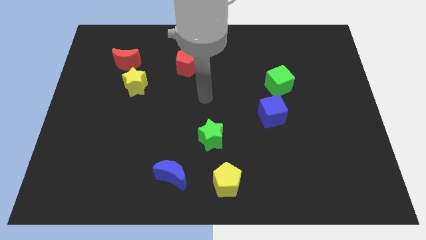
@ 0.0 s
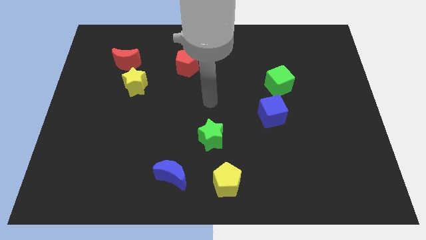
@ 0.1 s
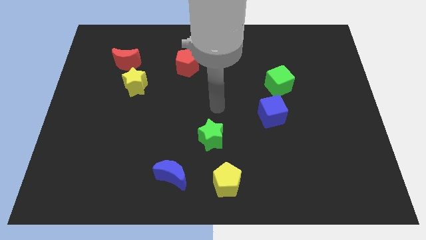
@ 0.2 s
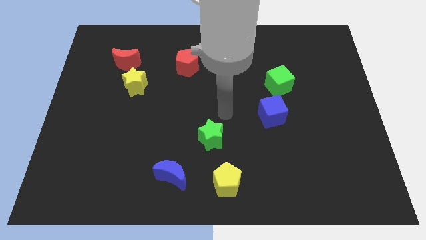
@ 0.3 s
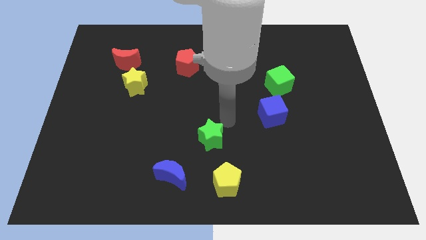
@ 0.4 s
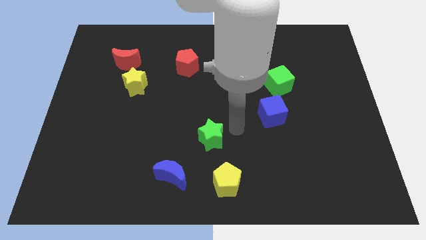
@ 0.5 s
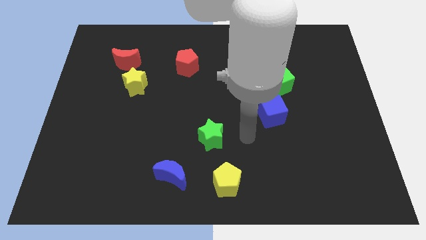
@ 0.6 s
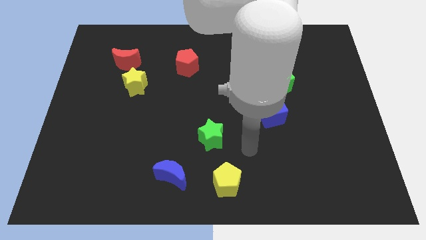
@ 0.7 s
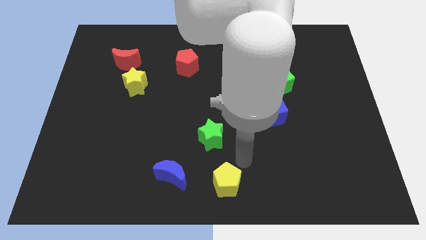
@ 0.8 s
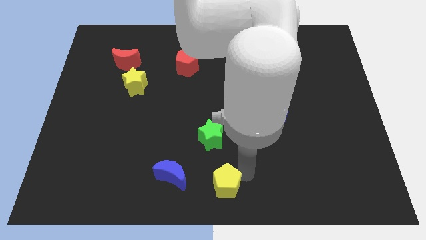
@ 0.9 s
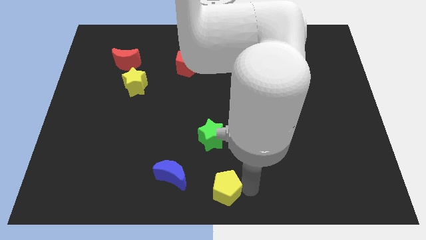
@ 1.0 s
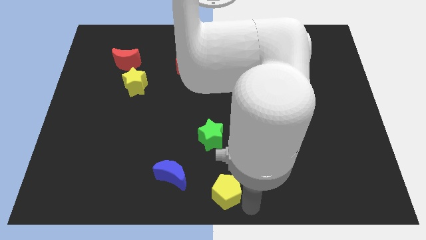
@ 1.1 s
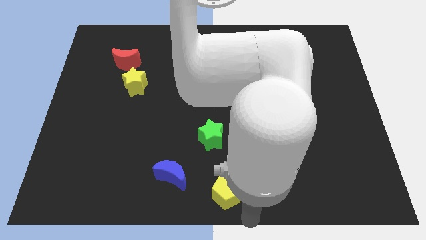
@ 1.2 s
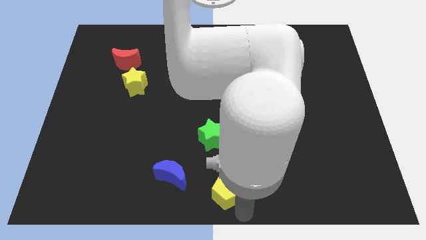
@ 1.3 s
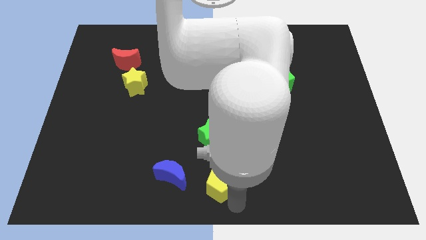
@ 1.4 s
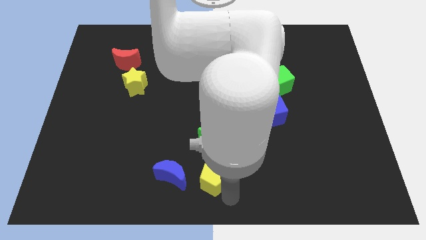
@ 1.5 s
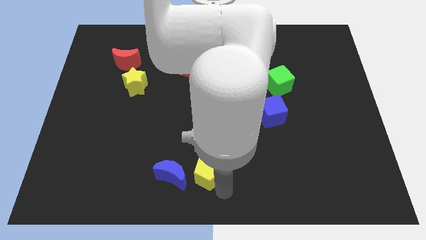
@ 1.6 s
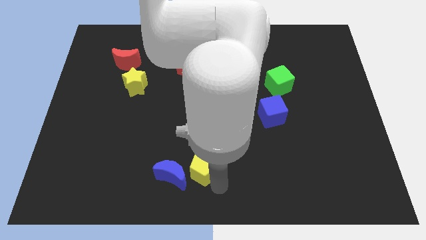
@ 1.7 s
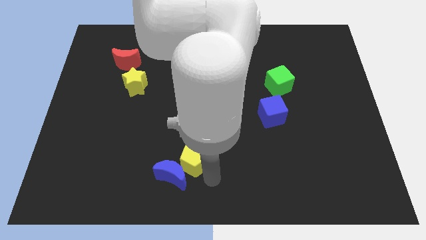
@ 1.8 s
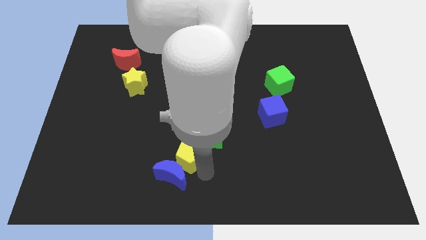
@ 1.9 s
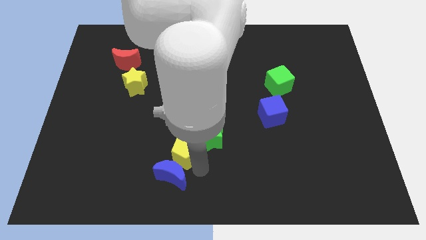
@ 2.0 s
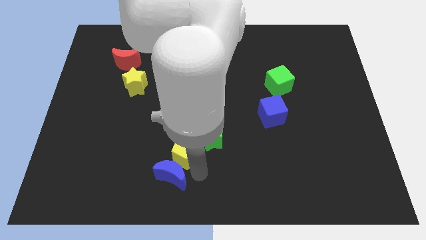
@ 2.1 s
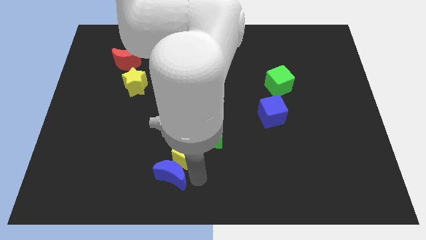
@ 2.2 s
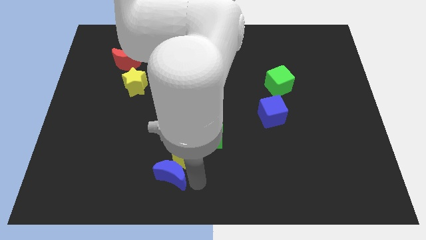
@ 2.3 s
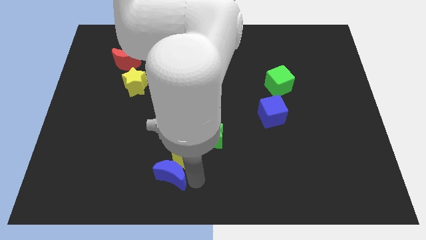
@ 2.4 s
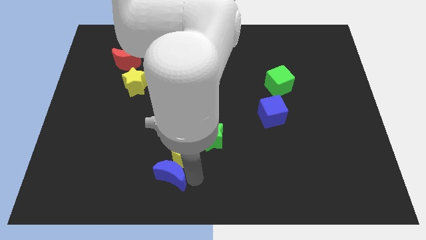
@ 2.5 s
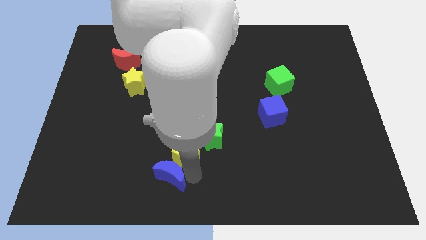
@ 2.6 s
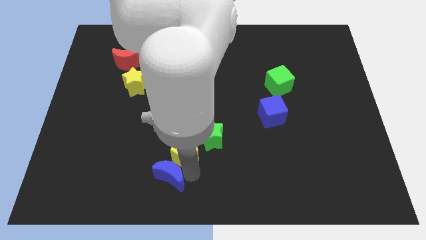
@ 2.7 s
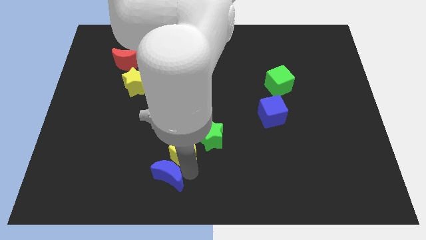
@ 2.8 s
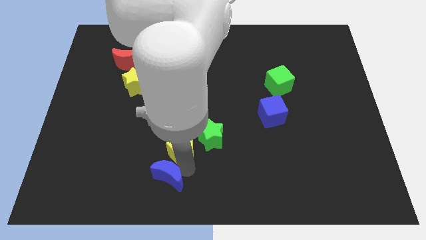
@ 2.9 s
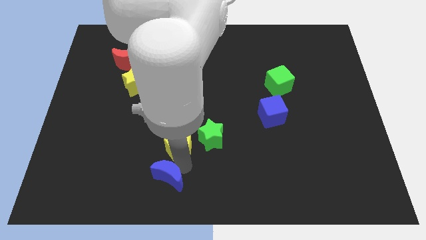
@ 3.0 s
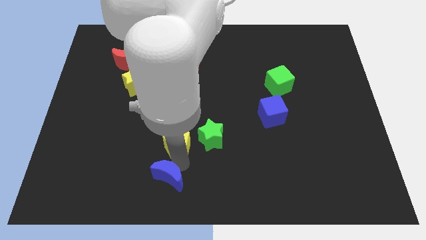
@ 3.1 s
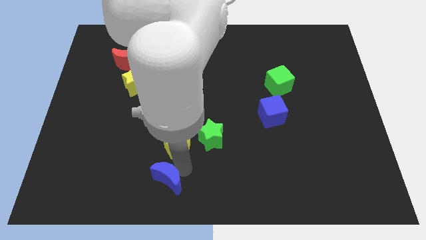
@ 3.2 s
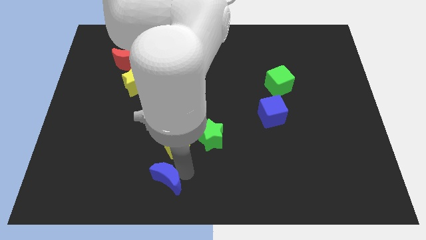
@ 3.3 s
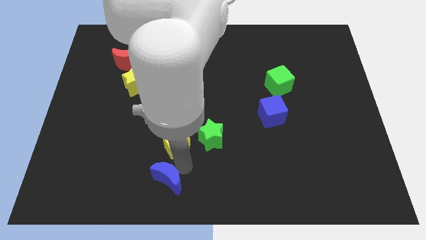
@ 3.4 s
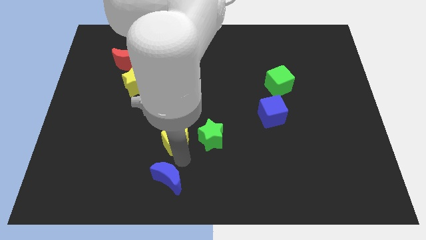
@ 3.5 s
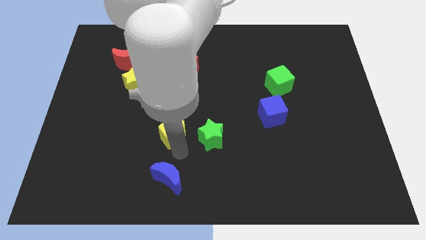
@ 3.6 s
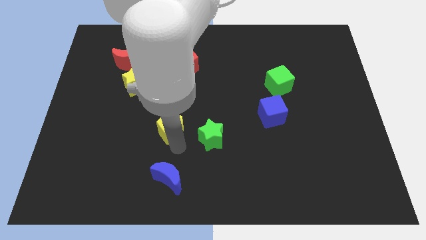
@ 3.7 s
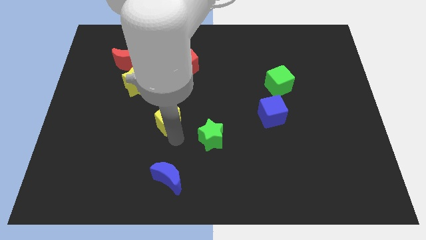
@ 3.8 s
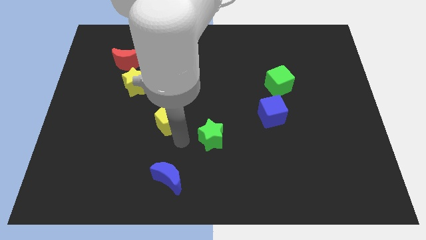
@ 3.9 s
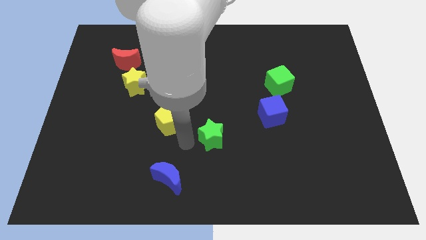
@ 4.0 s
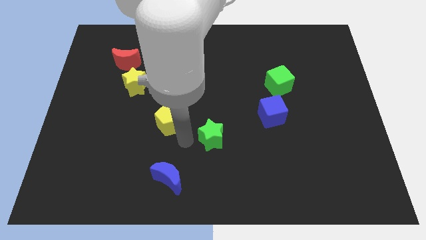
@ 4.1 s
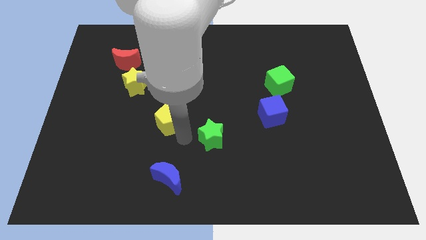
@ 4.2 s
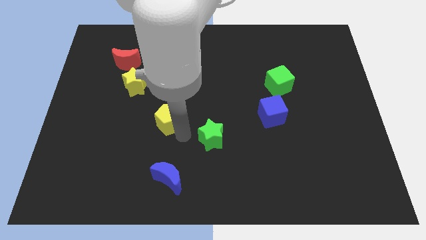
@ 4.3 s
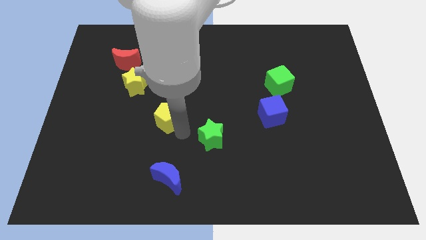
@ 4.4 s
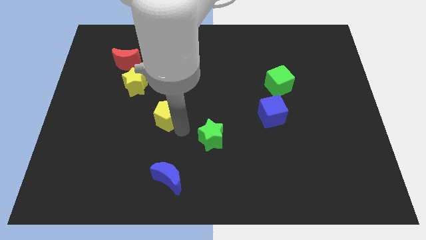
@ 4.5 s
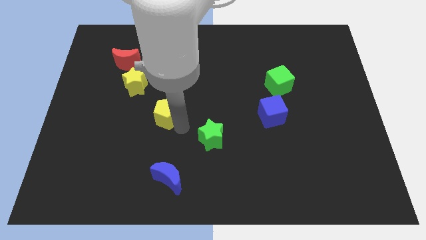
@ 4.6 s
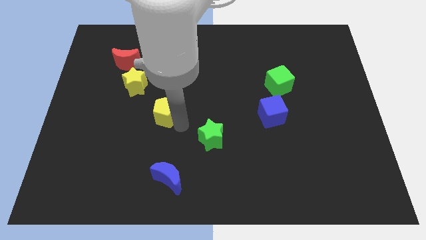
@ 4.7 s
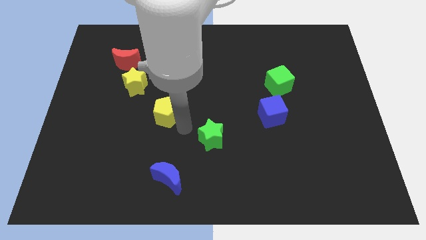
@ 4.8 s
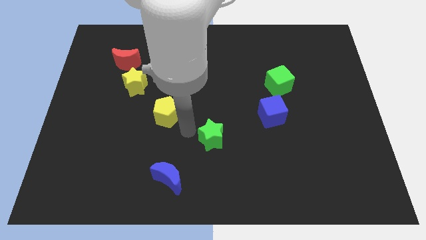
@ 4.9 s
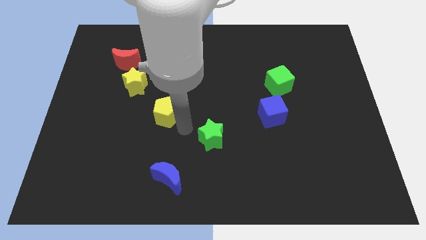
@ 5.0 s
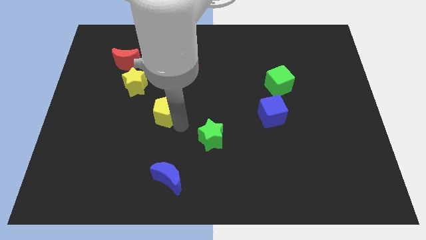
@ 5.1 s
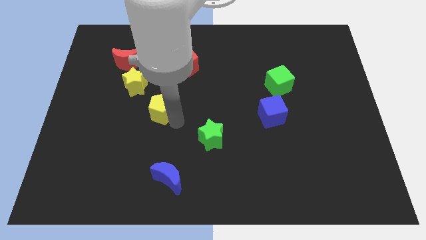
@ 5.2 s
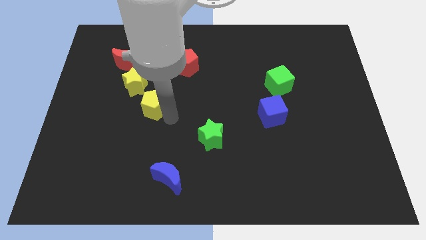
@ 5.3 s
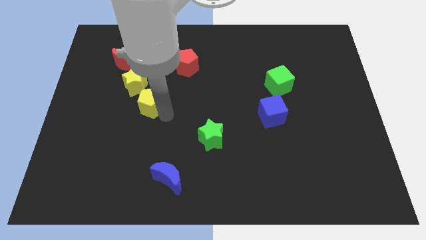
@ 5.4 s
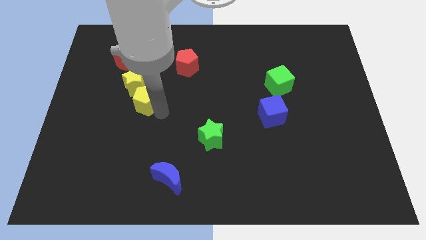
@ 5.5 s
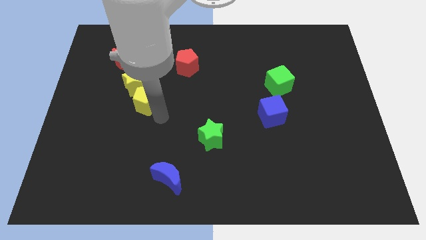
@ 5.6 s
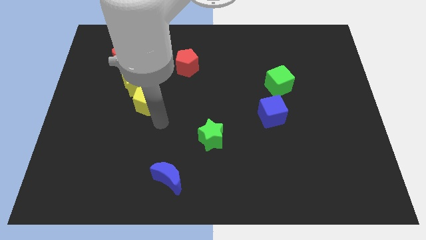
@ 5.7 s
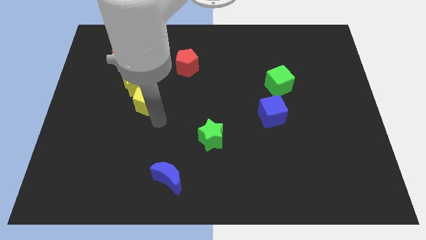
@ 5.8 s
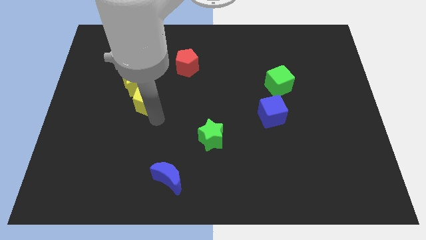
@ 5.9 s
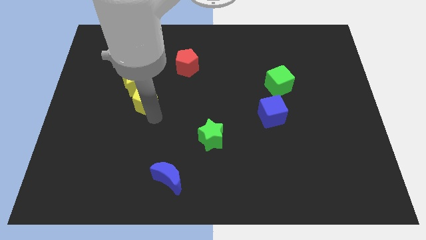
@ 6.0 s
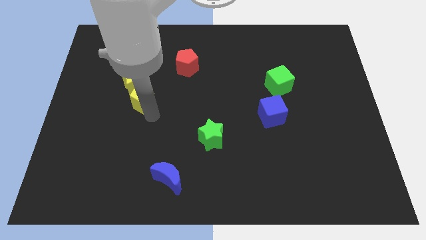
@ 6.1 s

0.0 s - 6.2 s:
push the yellow pentagon to the yellow star
